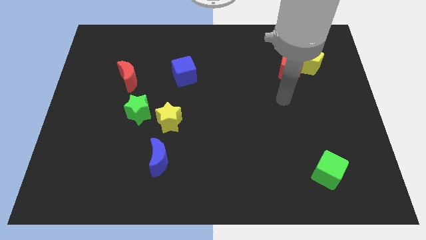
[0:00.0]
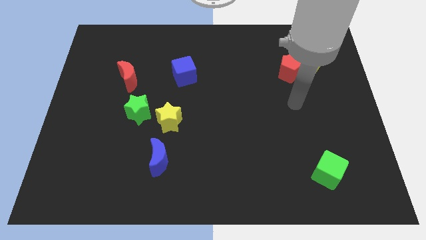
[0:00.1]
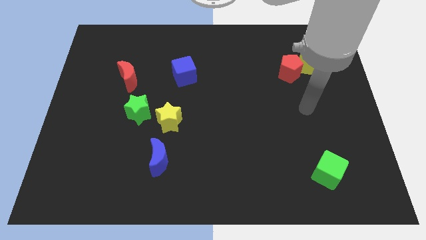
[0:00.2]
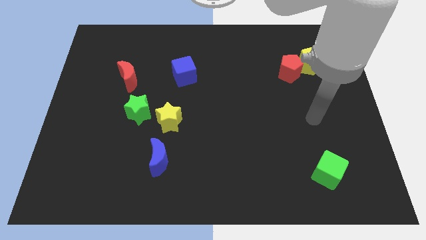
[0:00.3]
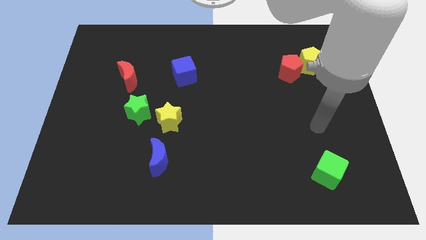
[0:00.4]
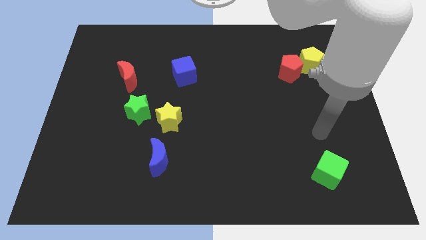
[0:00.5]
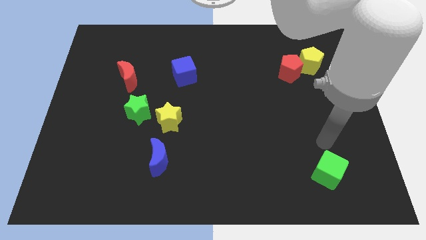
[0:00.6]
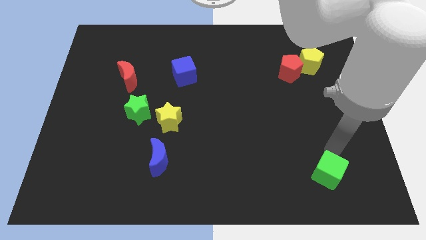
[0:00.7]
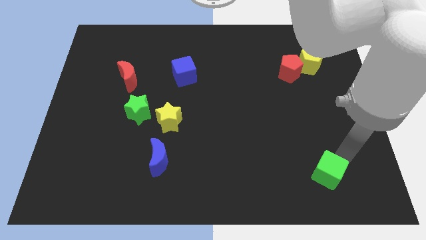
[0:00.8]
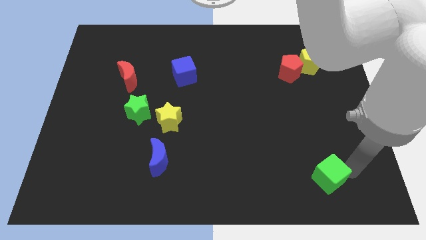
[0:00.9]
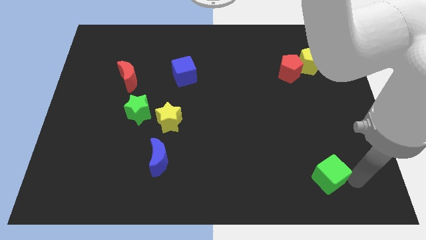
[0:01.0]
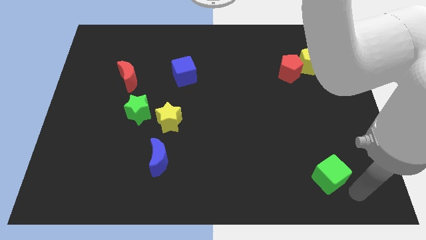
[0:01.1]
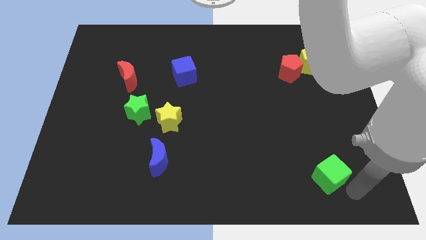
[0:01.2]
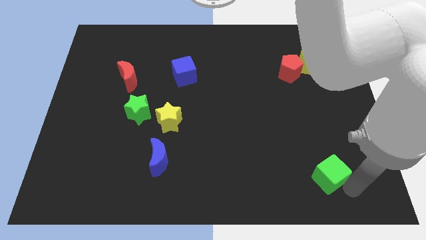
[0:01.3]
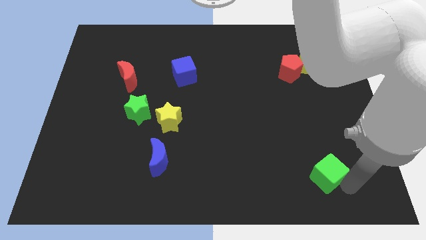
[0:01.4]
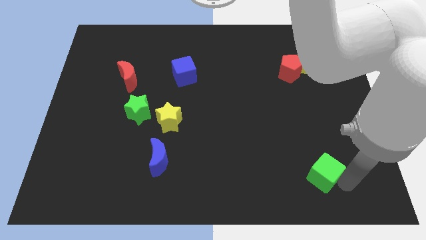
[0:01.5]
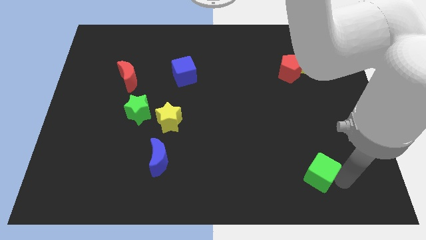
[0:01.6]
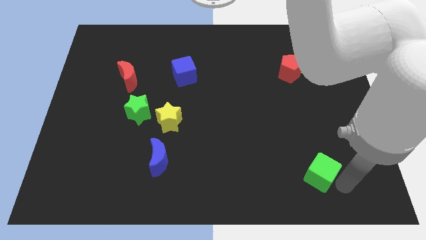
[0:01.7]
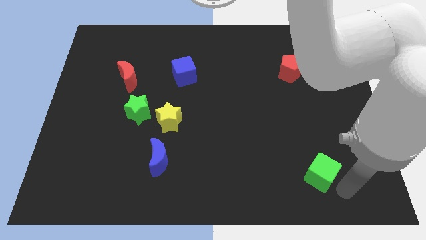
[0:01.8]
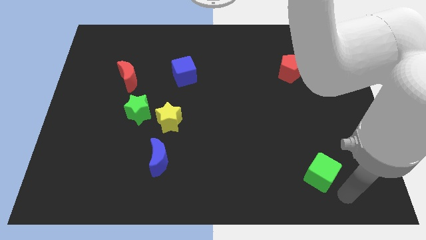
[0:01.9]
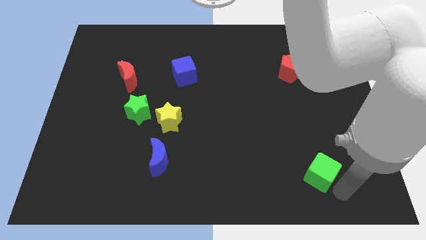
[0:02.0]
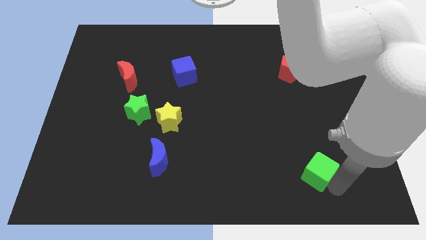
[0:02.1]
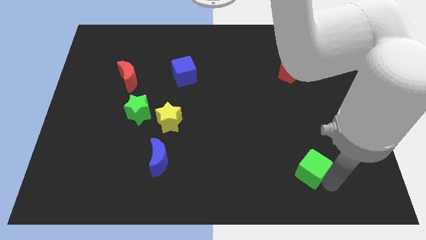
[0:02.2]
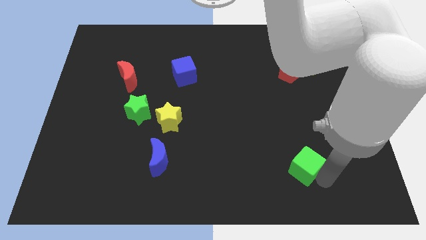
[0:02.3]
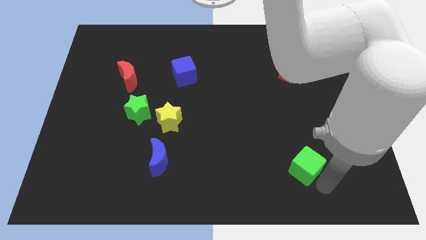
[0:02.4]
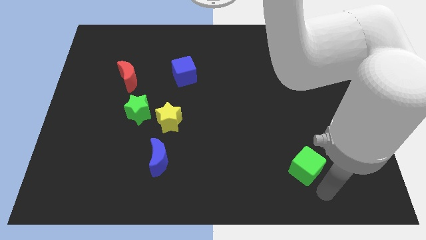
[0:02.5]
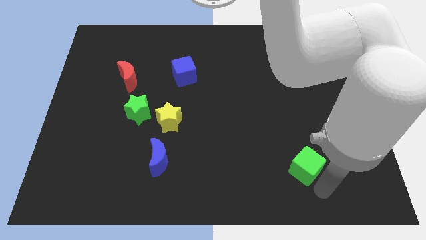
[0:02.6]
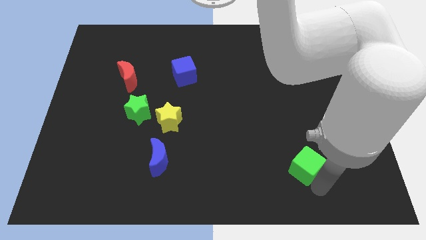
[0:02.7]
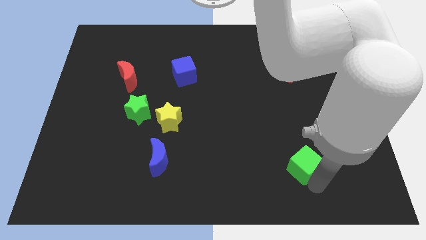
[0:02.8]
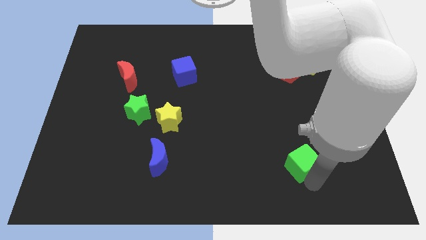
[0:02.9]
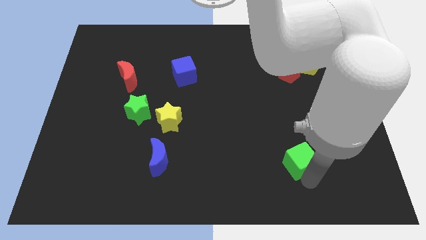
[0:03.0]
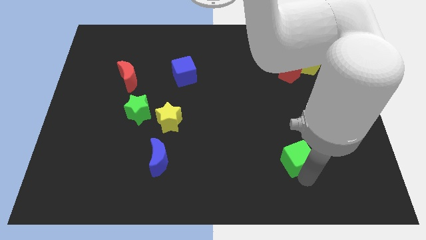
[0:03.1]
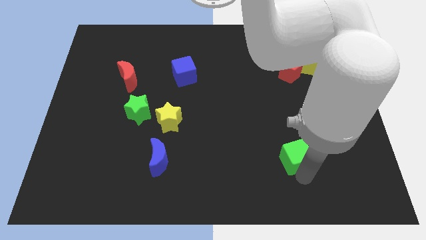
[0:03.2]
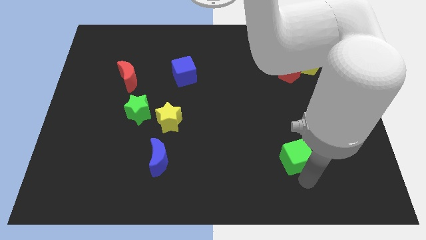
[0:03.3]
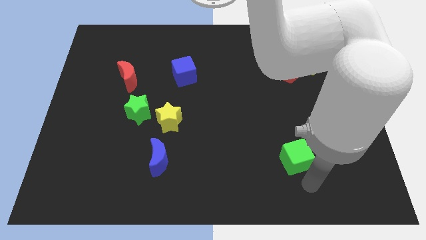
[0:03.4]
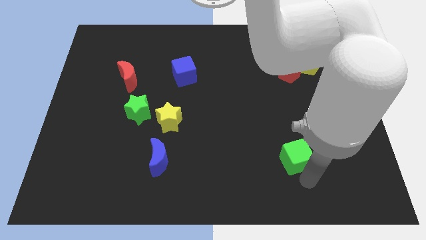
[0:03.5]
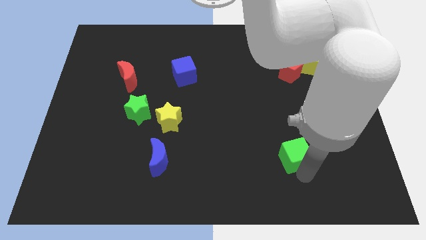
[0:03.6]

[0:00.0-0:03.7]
move the green cube diagonally up and left somewhat

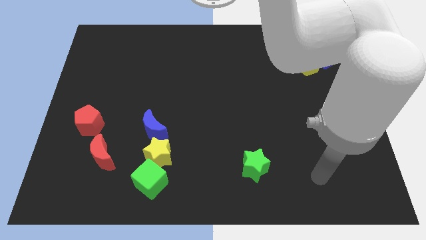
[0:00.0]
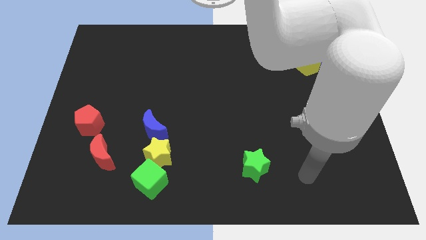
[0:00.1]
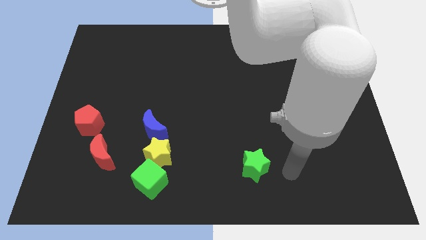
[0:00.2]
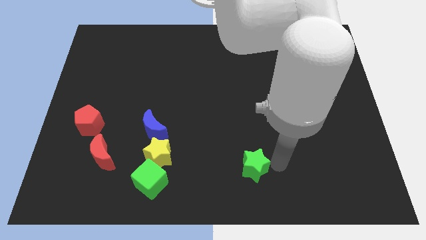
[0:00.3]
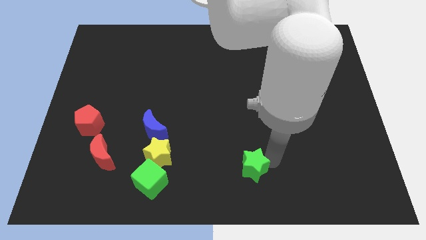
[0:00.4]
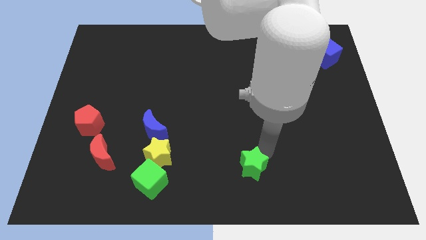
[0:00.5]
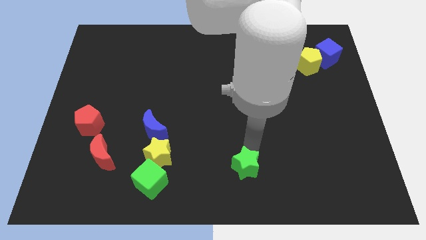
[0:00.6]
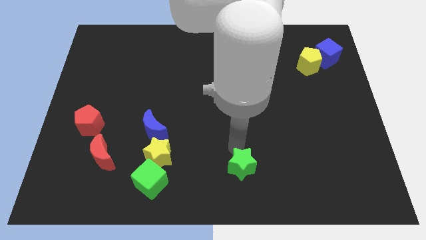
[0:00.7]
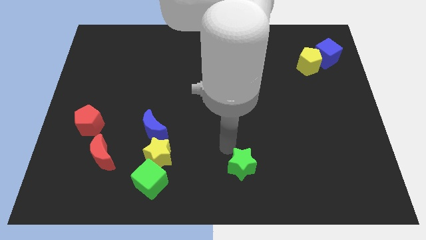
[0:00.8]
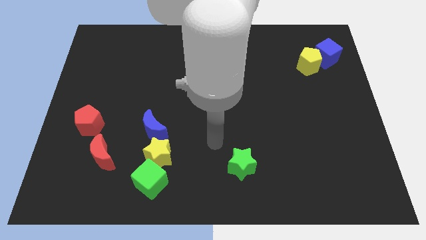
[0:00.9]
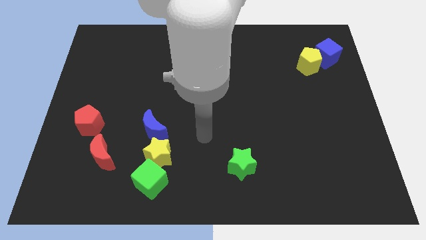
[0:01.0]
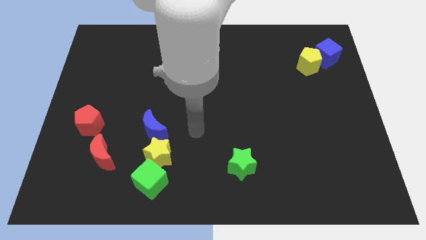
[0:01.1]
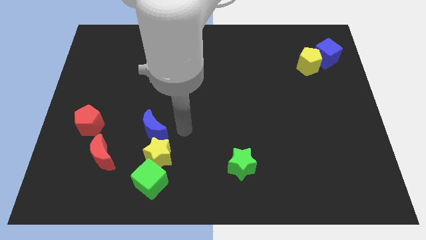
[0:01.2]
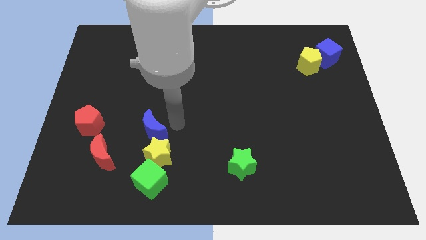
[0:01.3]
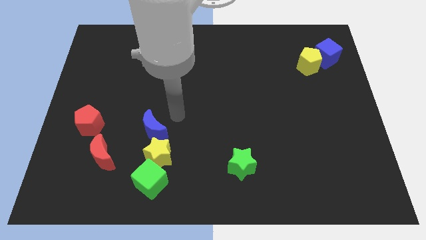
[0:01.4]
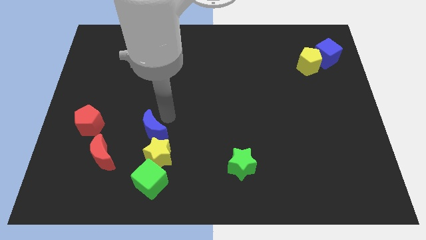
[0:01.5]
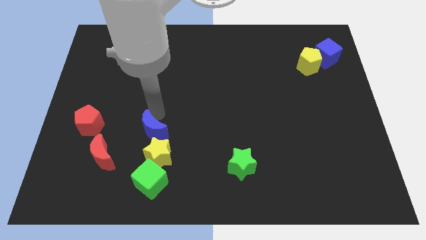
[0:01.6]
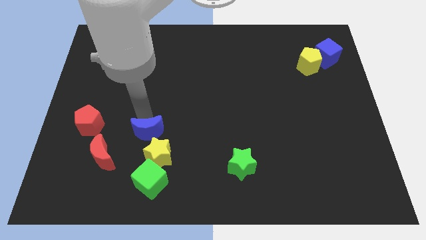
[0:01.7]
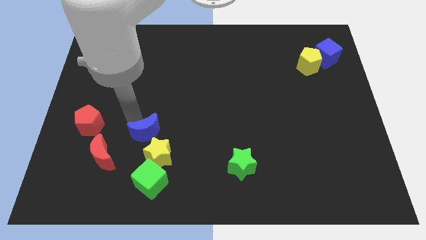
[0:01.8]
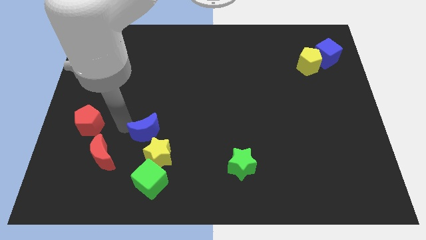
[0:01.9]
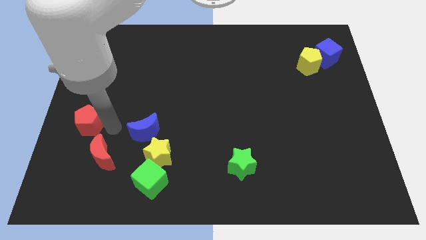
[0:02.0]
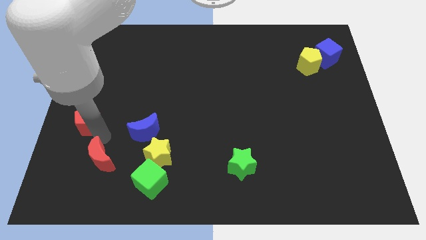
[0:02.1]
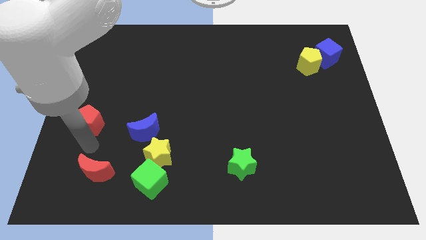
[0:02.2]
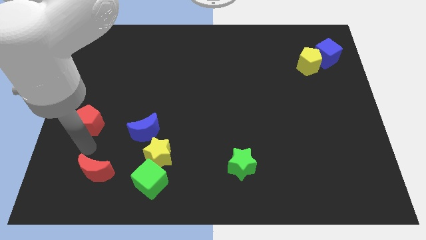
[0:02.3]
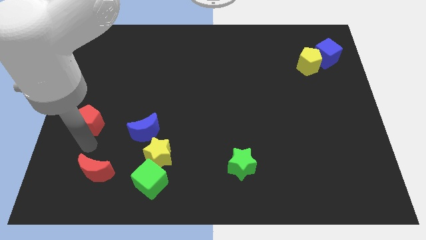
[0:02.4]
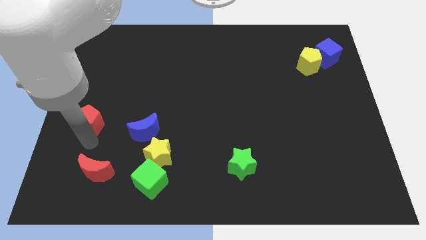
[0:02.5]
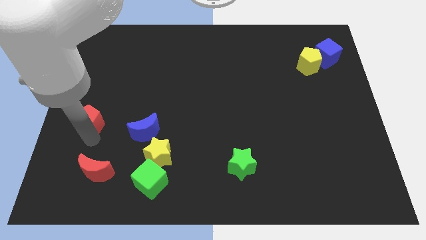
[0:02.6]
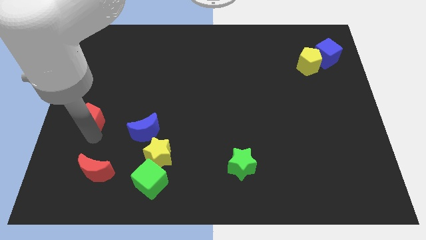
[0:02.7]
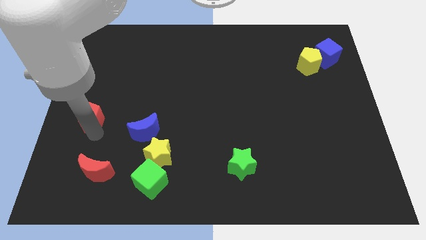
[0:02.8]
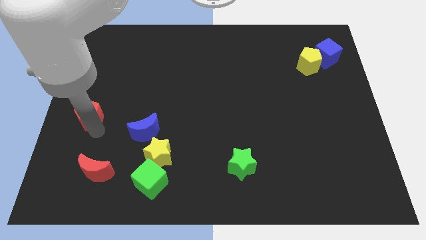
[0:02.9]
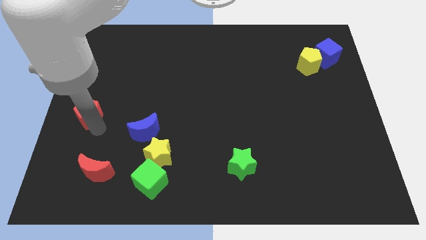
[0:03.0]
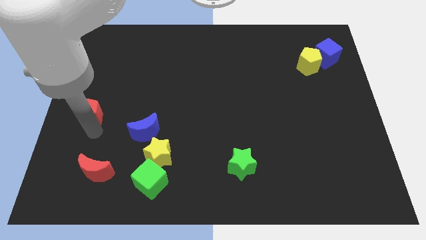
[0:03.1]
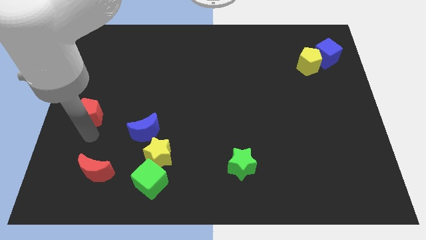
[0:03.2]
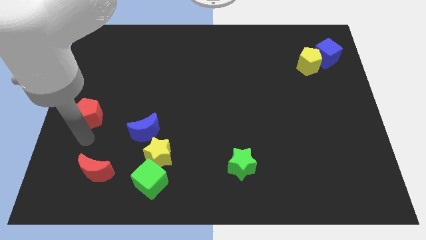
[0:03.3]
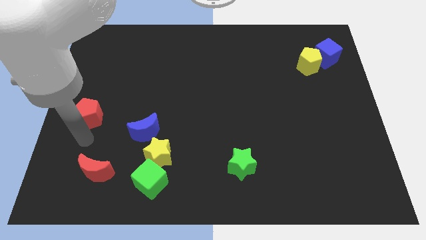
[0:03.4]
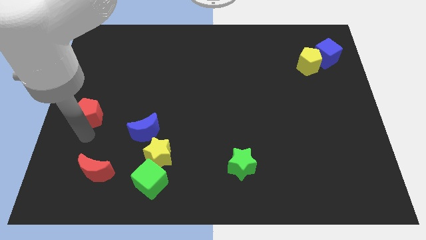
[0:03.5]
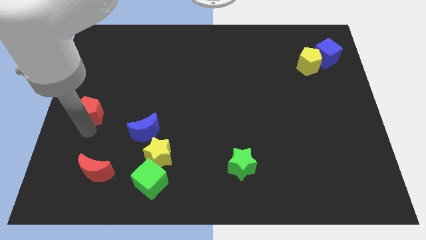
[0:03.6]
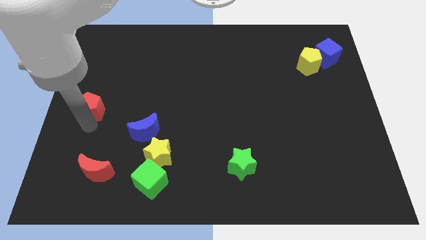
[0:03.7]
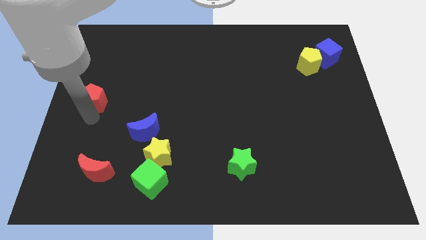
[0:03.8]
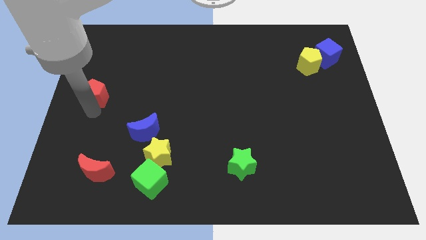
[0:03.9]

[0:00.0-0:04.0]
move the red pentagon up slightly

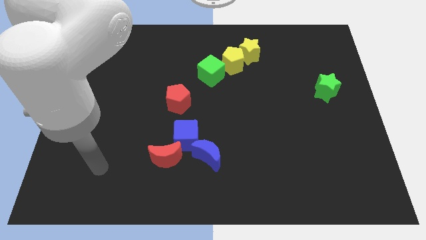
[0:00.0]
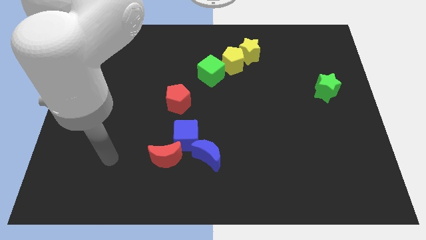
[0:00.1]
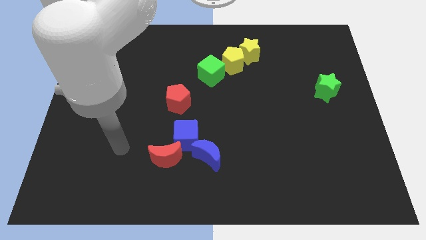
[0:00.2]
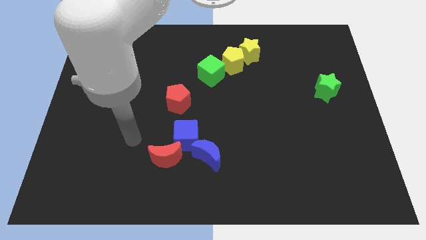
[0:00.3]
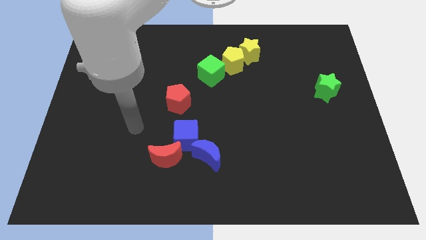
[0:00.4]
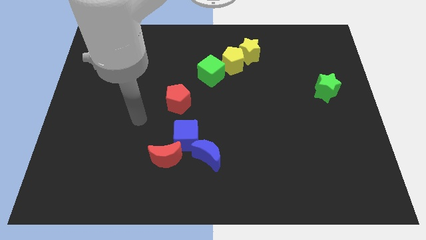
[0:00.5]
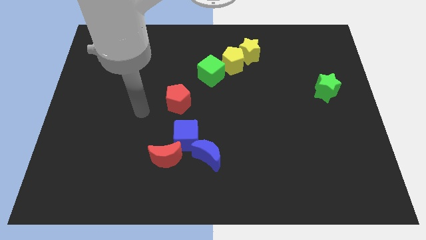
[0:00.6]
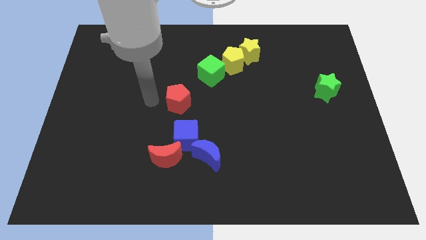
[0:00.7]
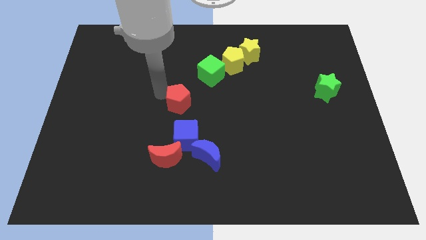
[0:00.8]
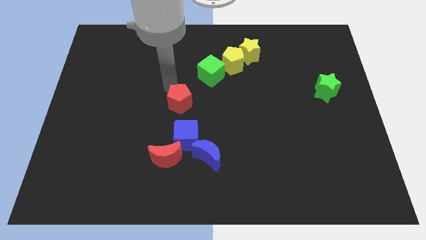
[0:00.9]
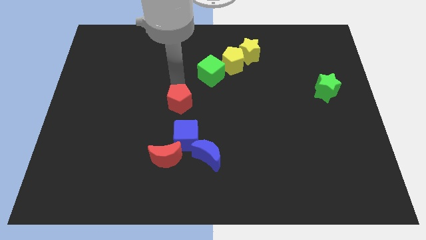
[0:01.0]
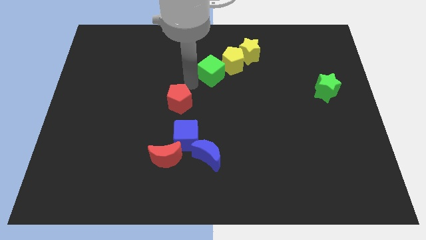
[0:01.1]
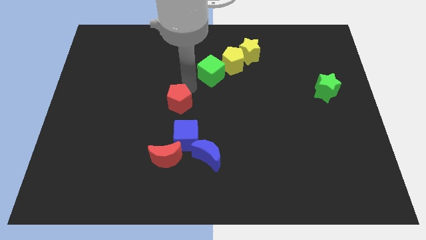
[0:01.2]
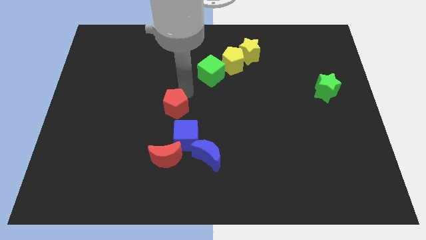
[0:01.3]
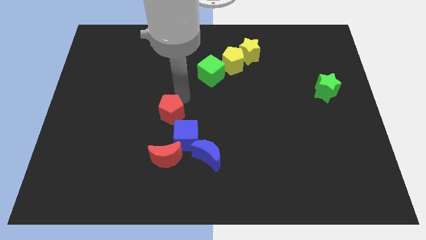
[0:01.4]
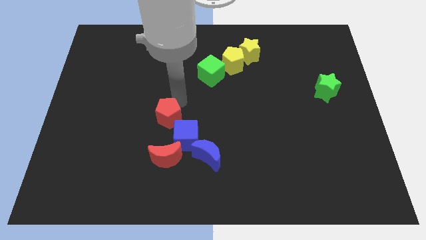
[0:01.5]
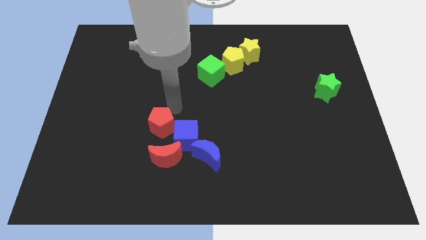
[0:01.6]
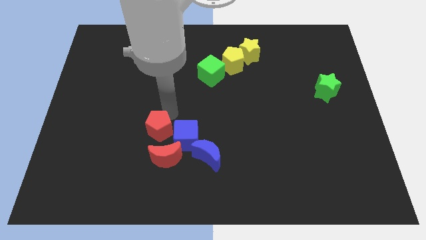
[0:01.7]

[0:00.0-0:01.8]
slightly push the red pentagon downwards
